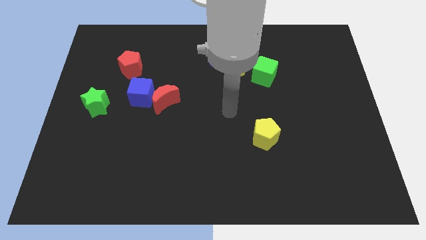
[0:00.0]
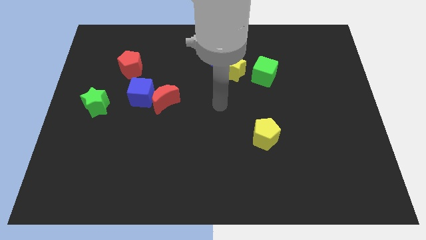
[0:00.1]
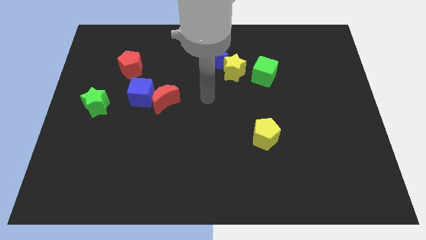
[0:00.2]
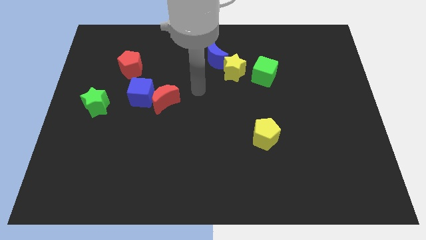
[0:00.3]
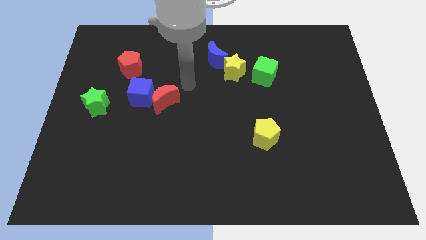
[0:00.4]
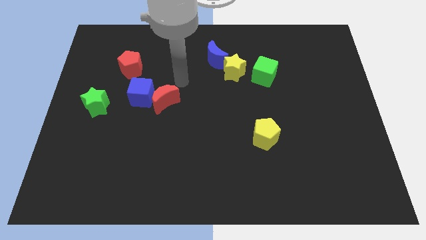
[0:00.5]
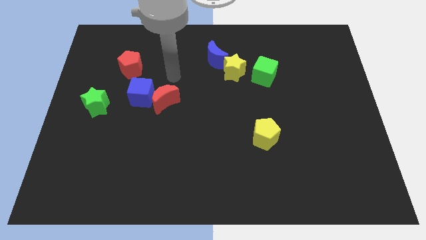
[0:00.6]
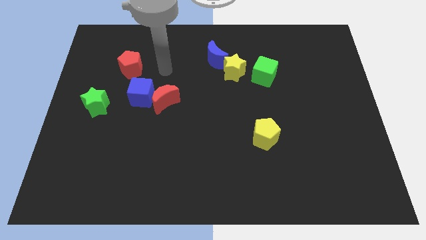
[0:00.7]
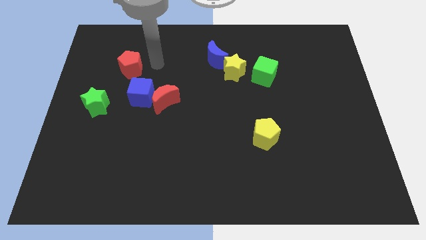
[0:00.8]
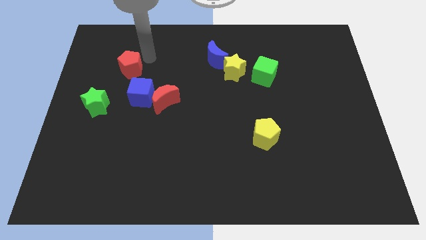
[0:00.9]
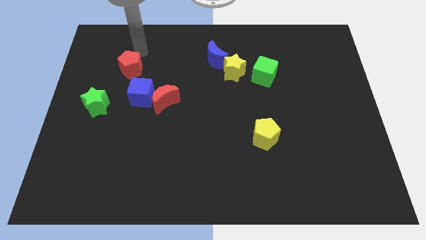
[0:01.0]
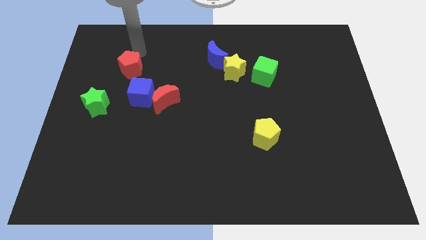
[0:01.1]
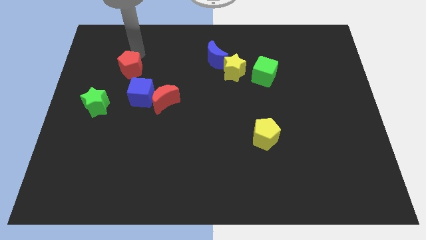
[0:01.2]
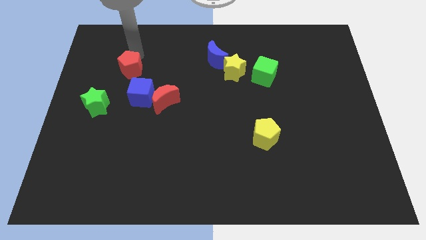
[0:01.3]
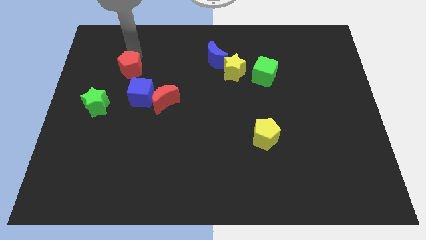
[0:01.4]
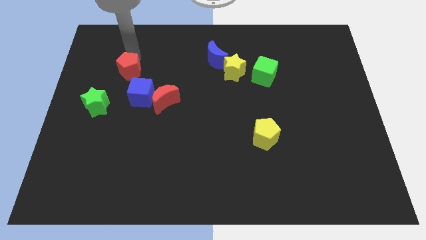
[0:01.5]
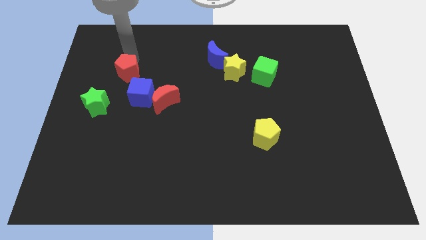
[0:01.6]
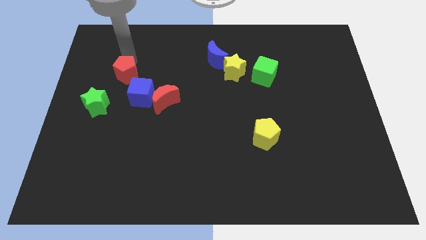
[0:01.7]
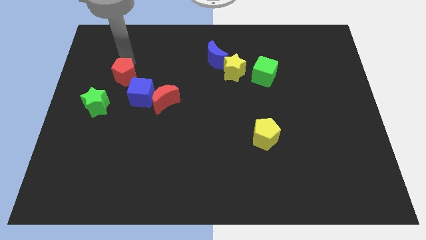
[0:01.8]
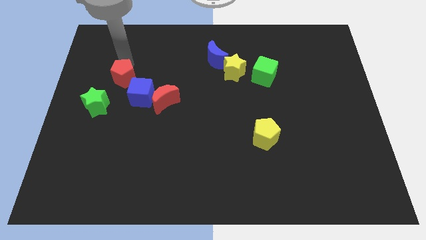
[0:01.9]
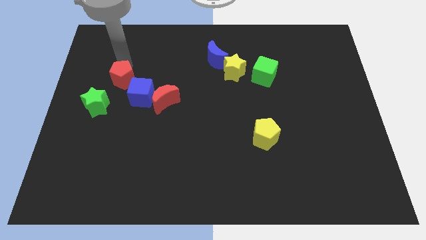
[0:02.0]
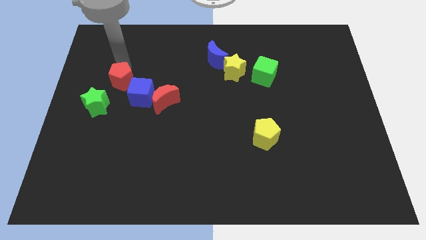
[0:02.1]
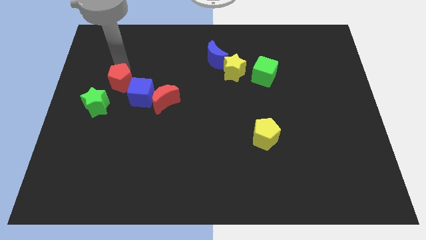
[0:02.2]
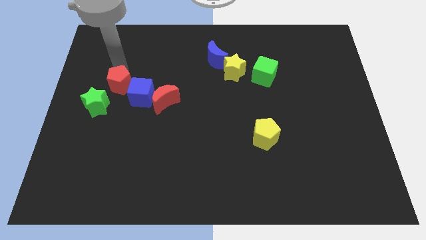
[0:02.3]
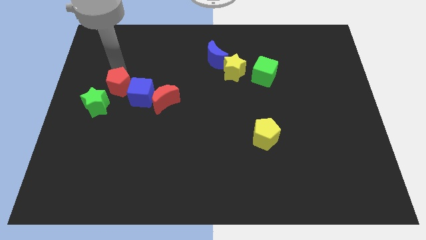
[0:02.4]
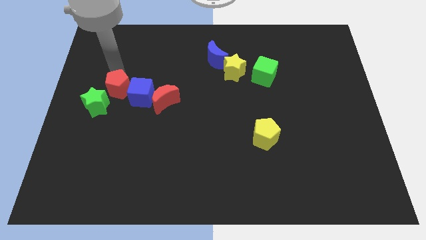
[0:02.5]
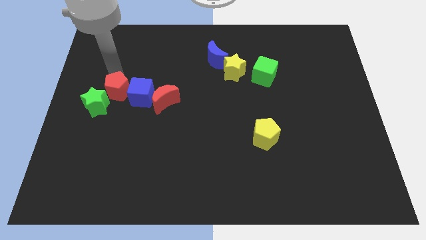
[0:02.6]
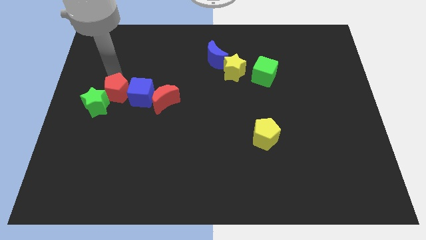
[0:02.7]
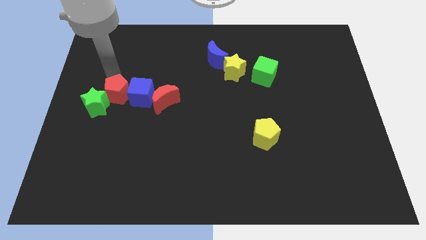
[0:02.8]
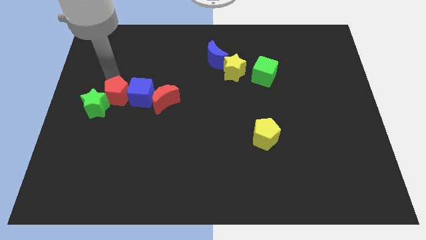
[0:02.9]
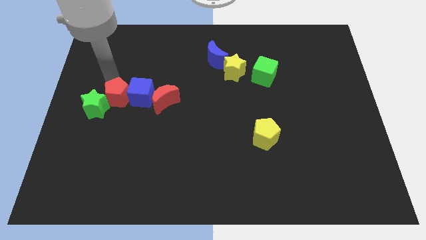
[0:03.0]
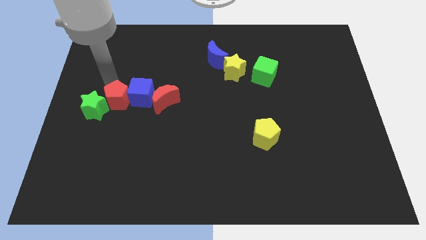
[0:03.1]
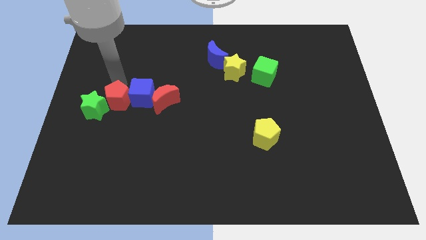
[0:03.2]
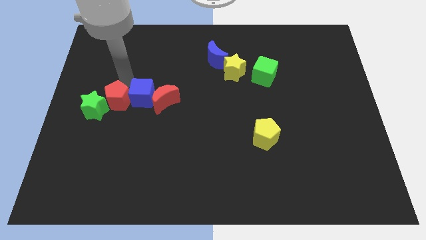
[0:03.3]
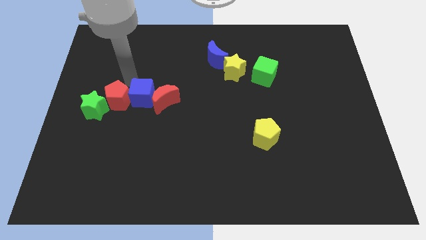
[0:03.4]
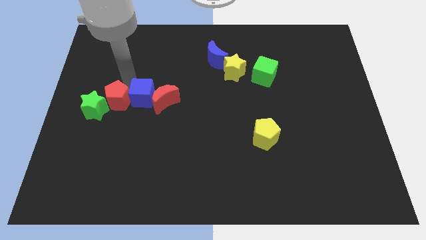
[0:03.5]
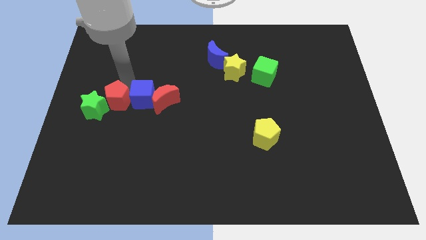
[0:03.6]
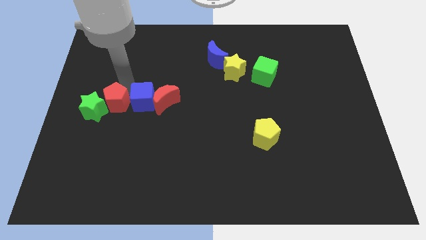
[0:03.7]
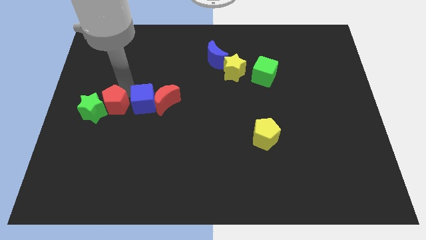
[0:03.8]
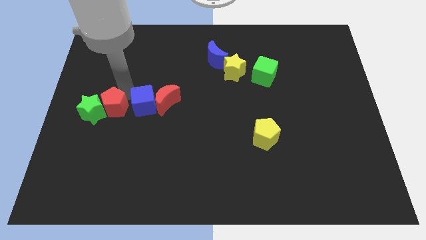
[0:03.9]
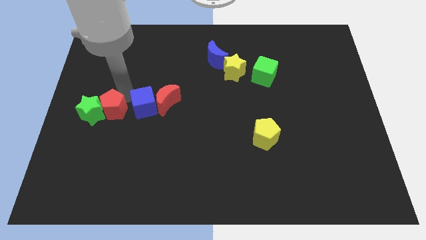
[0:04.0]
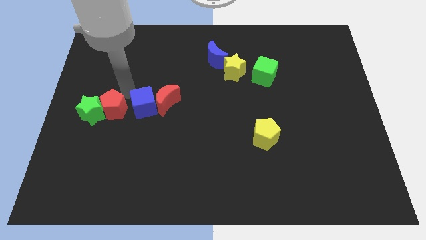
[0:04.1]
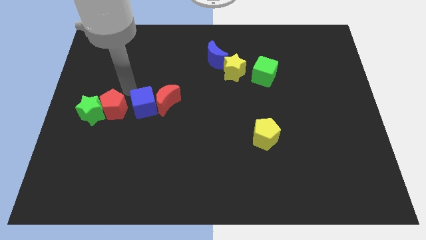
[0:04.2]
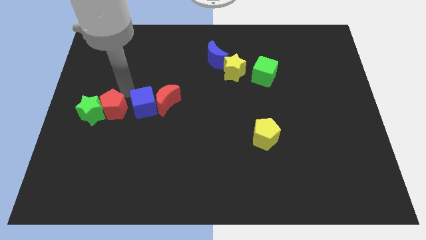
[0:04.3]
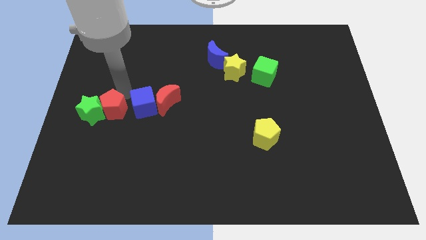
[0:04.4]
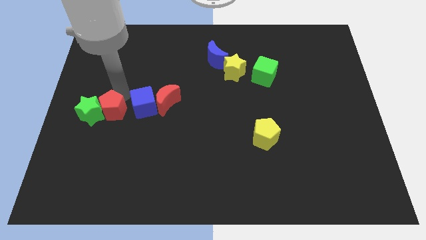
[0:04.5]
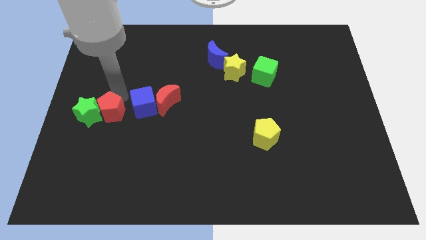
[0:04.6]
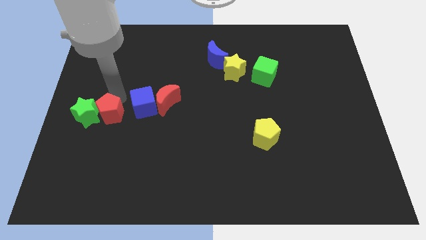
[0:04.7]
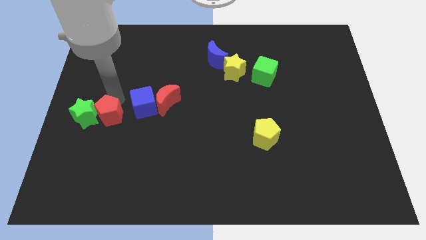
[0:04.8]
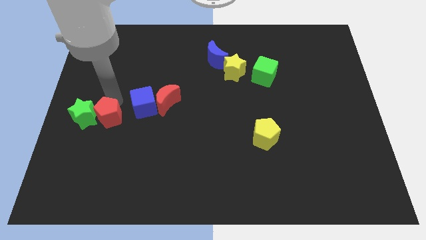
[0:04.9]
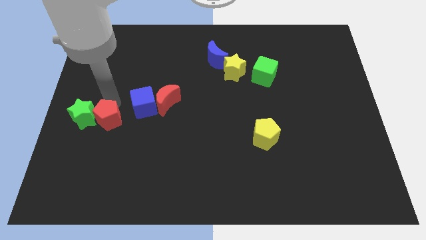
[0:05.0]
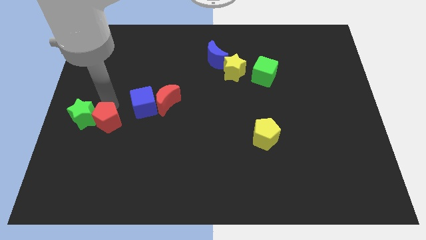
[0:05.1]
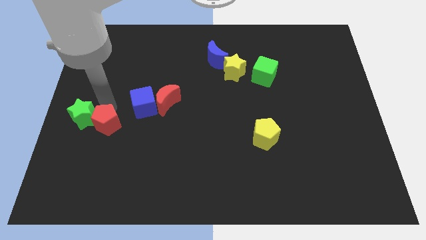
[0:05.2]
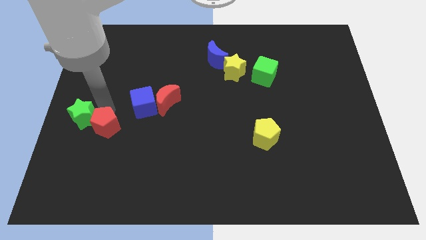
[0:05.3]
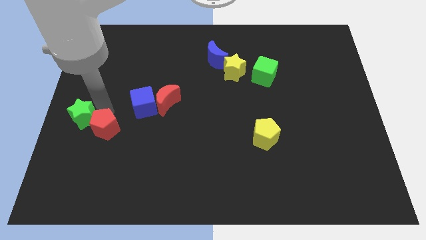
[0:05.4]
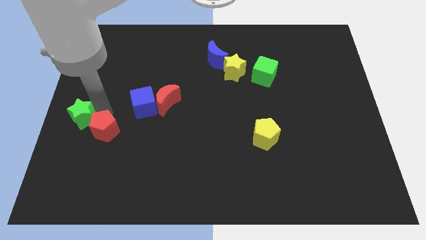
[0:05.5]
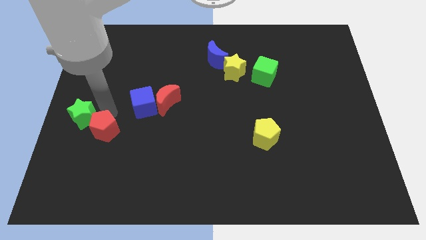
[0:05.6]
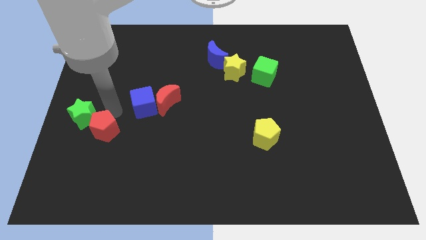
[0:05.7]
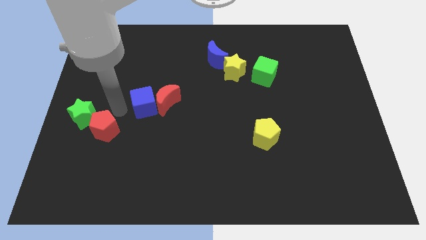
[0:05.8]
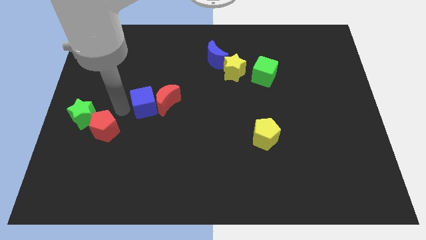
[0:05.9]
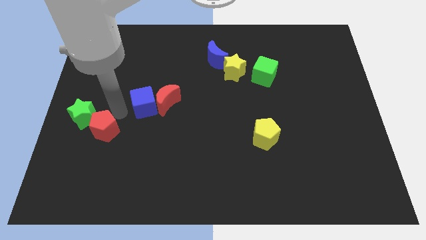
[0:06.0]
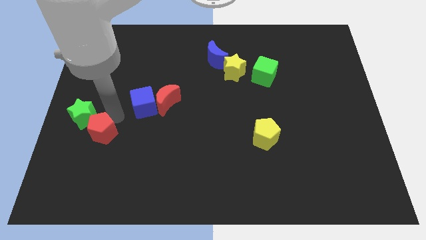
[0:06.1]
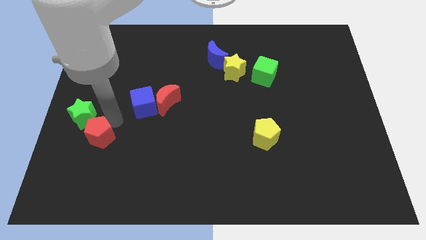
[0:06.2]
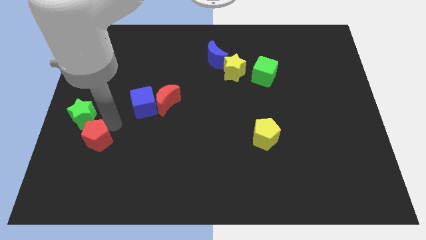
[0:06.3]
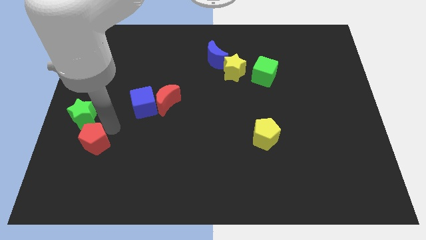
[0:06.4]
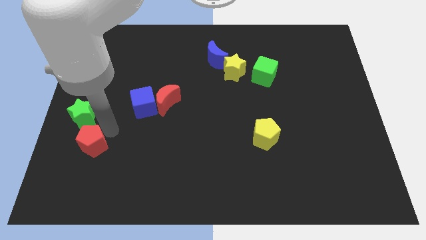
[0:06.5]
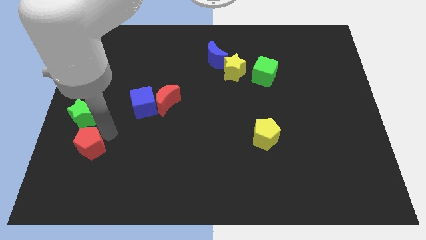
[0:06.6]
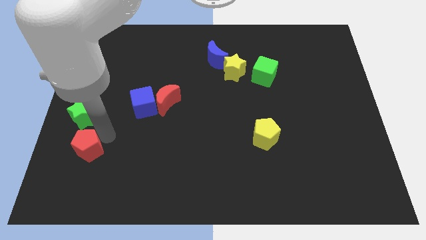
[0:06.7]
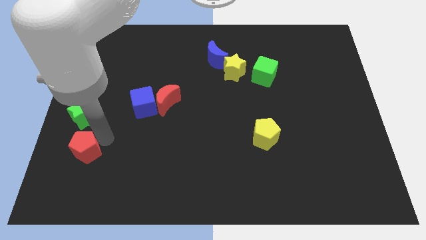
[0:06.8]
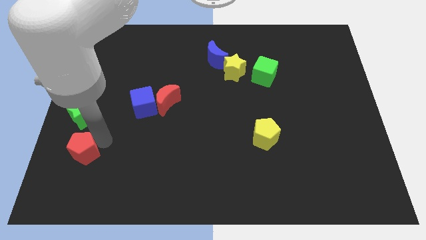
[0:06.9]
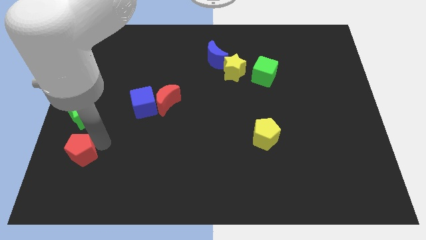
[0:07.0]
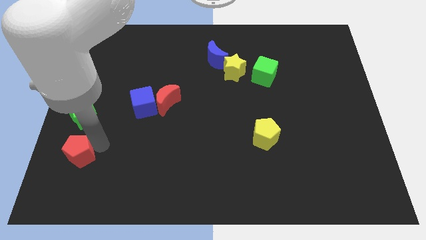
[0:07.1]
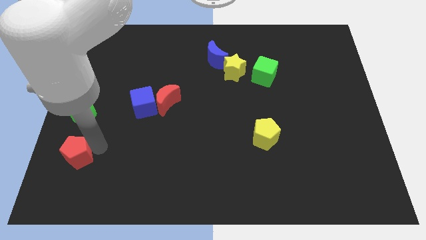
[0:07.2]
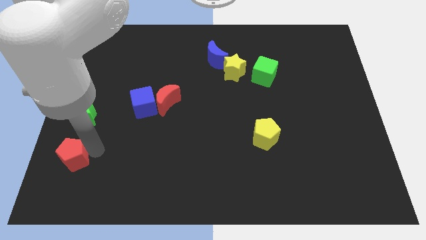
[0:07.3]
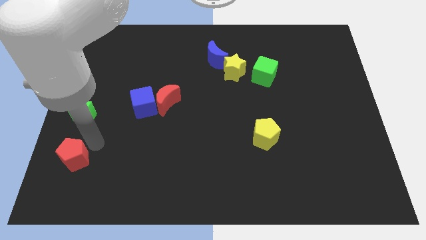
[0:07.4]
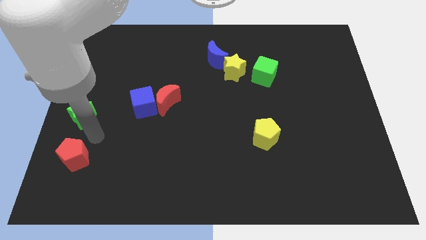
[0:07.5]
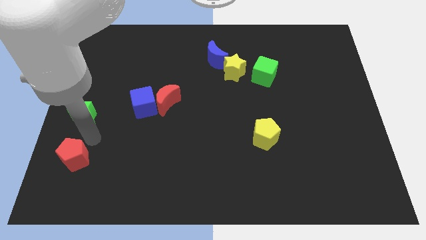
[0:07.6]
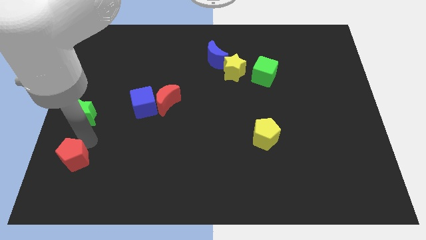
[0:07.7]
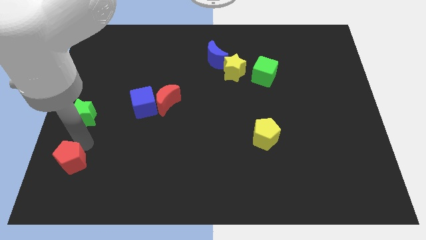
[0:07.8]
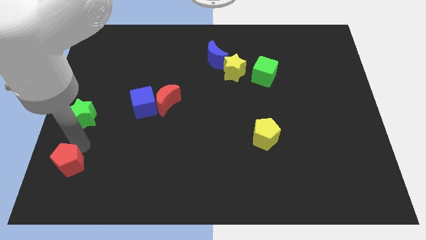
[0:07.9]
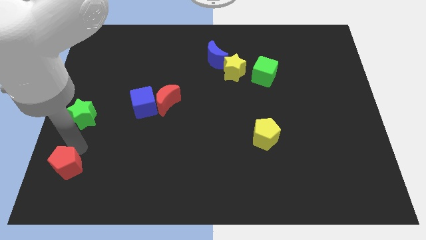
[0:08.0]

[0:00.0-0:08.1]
slide the red pentagon to the bottom left corner
